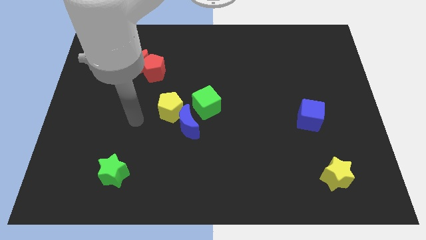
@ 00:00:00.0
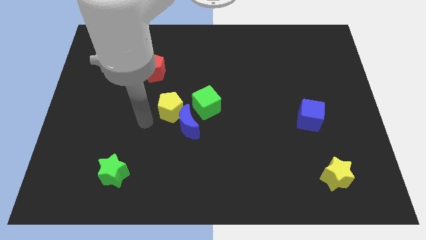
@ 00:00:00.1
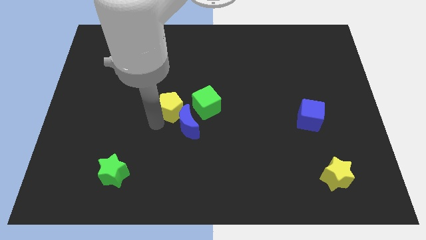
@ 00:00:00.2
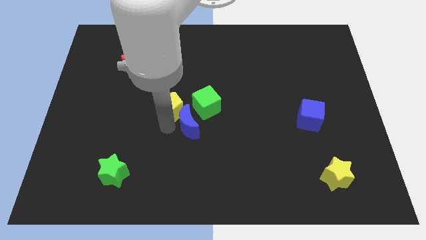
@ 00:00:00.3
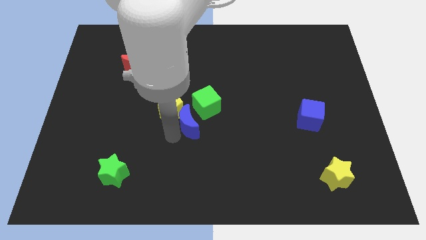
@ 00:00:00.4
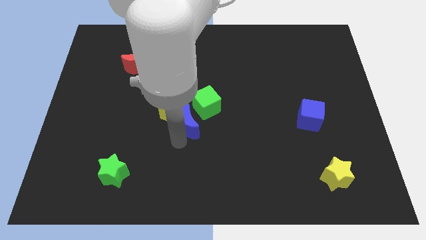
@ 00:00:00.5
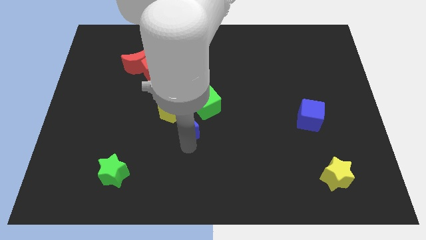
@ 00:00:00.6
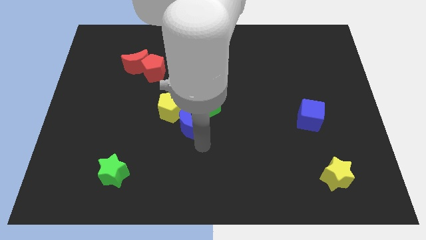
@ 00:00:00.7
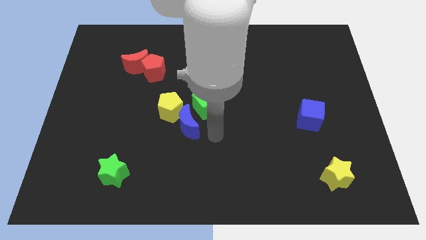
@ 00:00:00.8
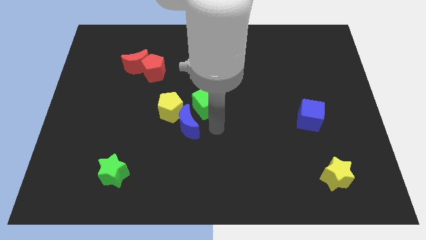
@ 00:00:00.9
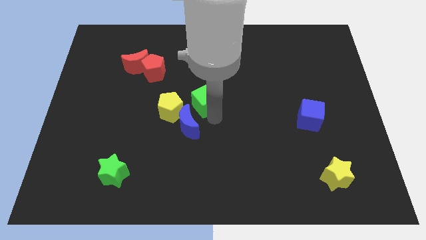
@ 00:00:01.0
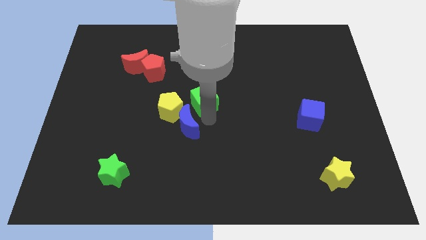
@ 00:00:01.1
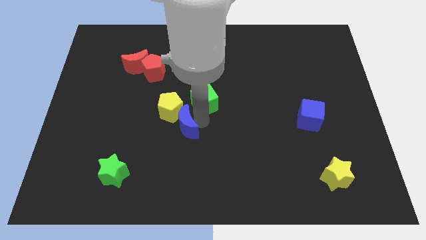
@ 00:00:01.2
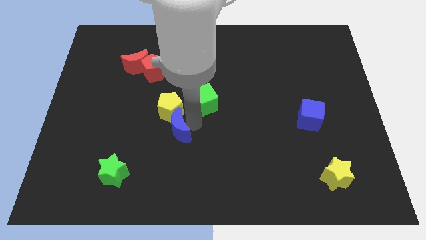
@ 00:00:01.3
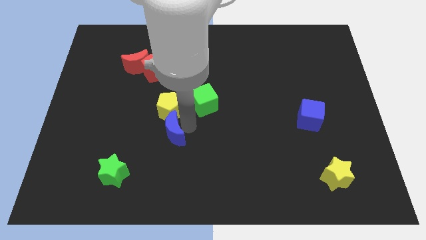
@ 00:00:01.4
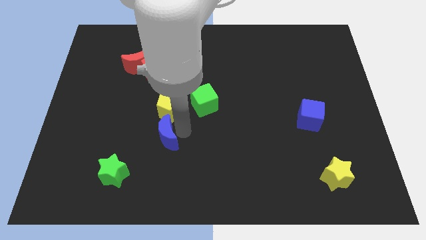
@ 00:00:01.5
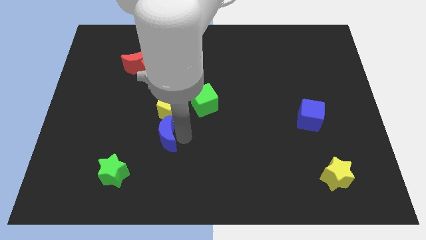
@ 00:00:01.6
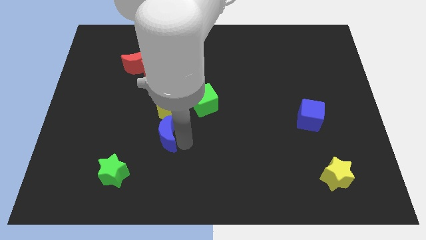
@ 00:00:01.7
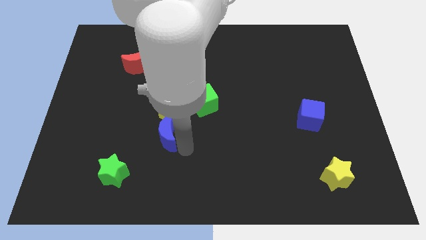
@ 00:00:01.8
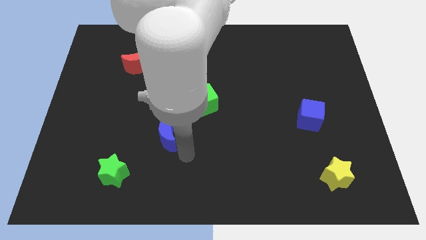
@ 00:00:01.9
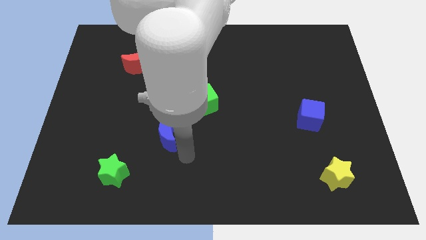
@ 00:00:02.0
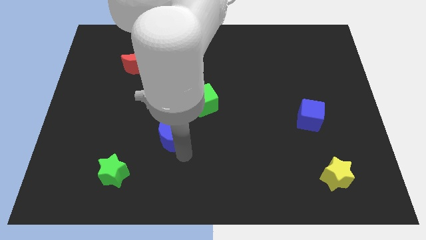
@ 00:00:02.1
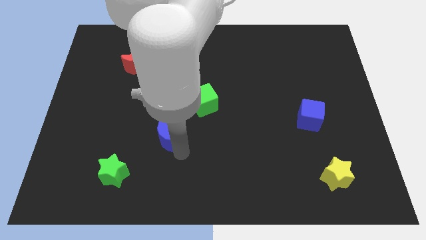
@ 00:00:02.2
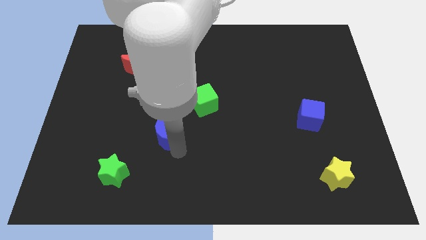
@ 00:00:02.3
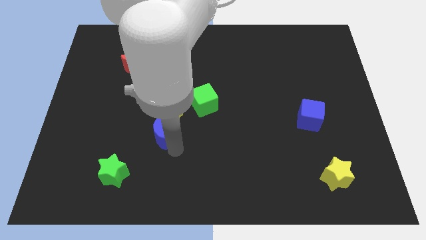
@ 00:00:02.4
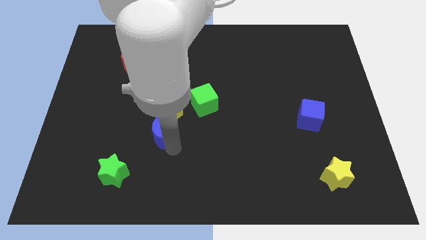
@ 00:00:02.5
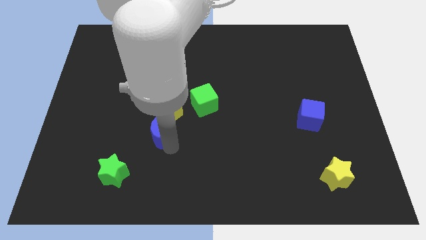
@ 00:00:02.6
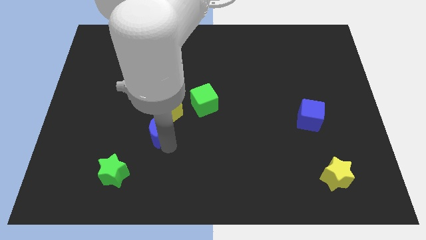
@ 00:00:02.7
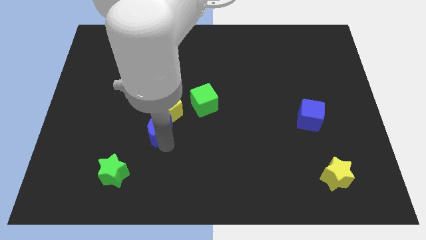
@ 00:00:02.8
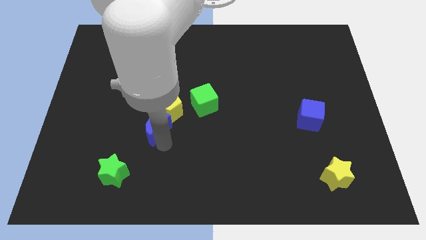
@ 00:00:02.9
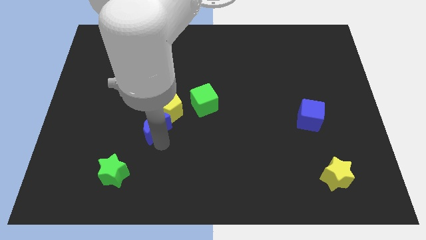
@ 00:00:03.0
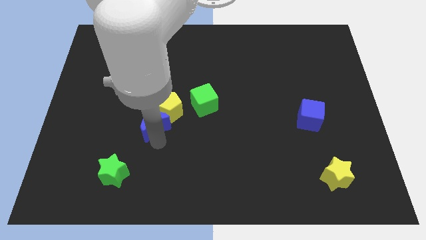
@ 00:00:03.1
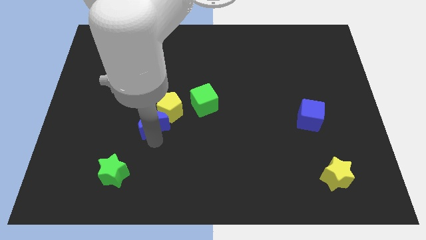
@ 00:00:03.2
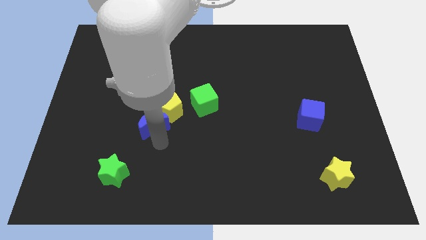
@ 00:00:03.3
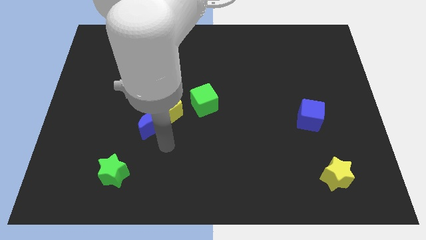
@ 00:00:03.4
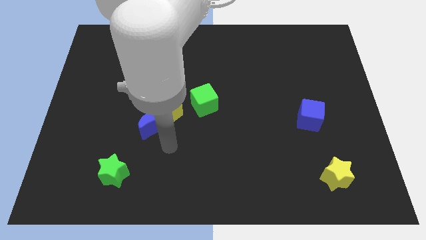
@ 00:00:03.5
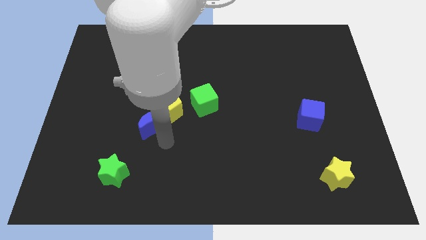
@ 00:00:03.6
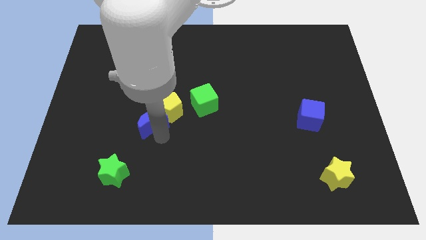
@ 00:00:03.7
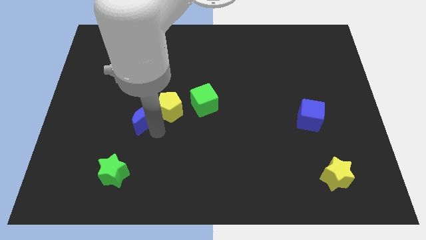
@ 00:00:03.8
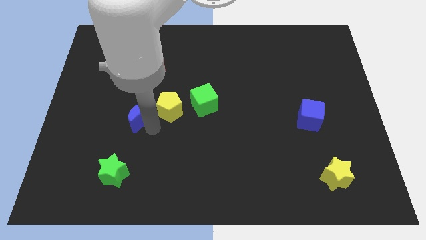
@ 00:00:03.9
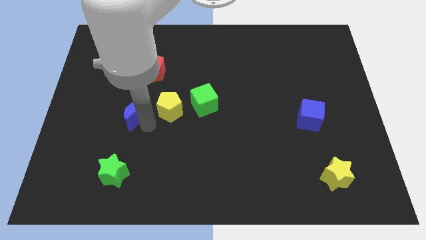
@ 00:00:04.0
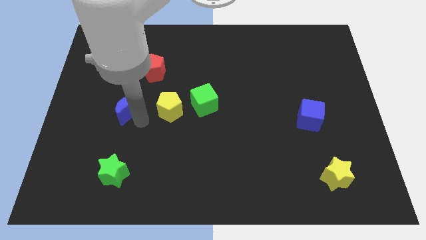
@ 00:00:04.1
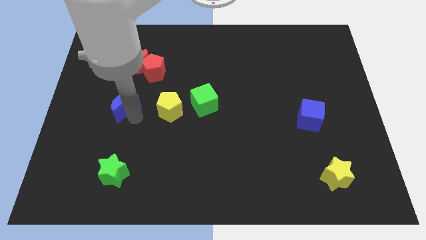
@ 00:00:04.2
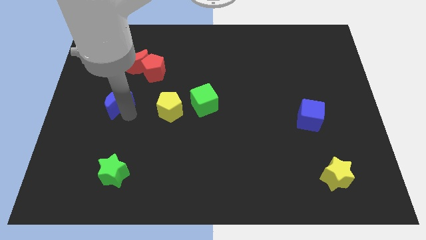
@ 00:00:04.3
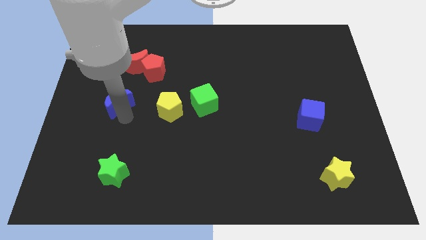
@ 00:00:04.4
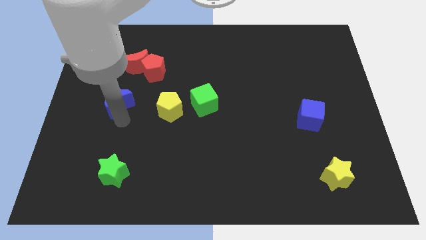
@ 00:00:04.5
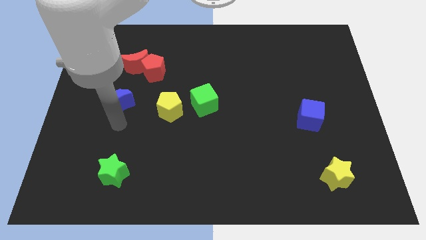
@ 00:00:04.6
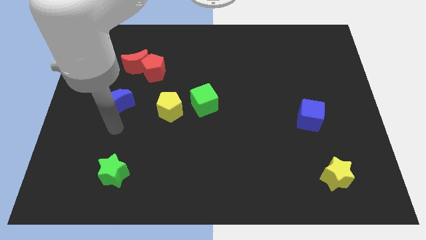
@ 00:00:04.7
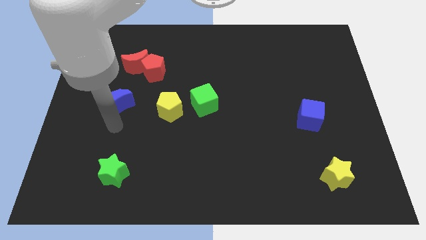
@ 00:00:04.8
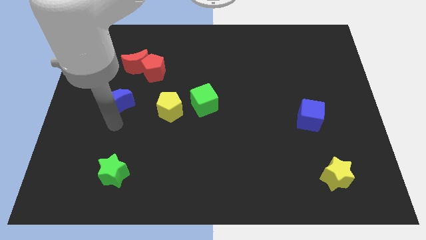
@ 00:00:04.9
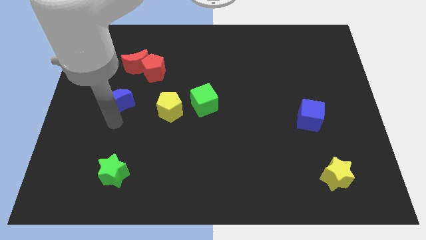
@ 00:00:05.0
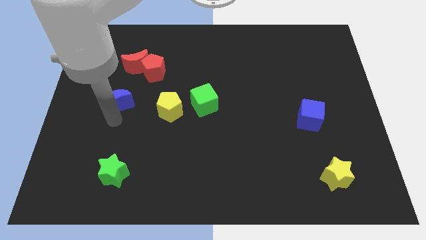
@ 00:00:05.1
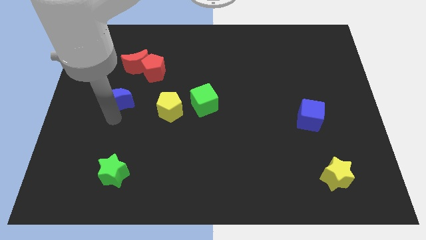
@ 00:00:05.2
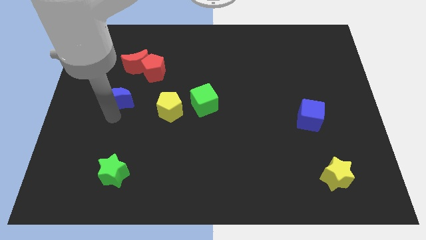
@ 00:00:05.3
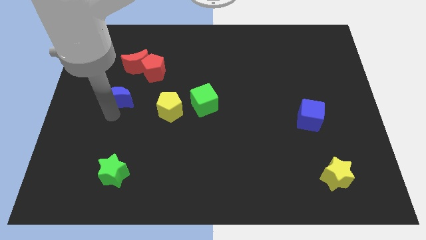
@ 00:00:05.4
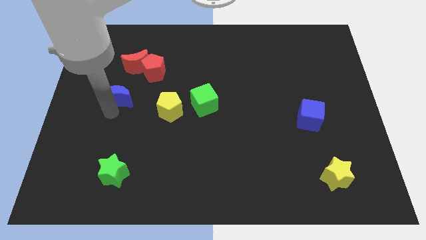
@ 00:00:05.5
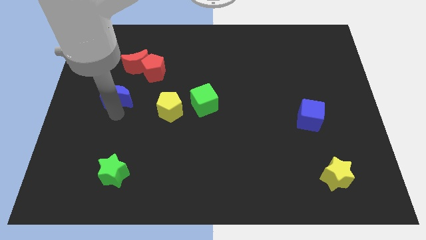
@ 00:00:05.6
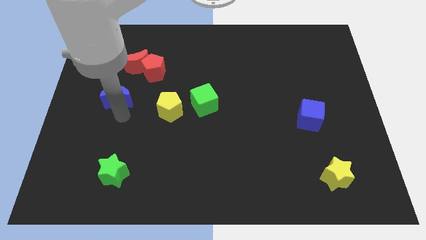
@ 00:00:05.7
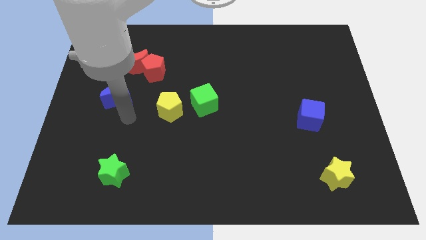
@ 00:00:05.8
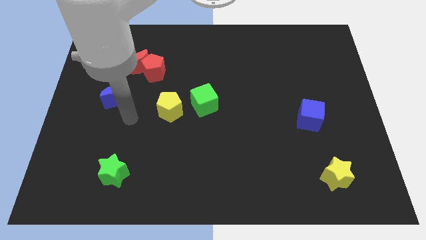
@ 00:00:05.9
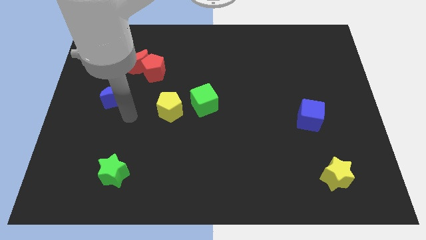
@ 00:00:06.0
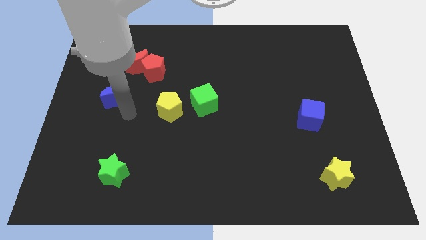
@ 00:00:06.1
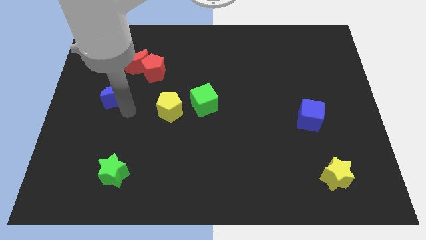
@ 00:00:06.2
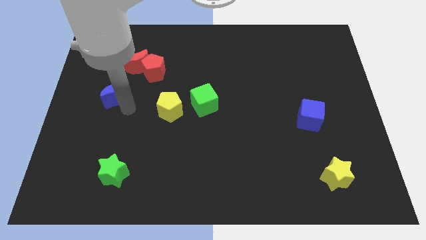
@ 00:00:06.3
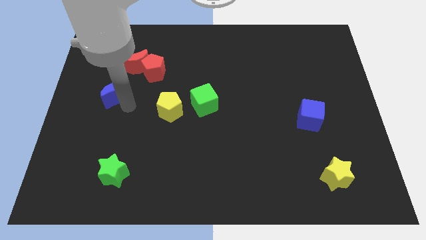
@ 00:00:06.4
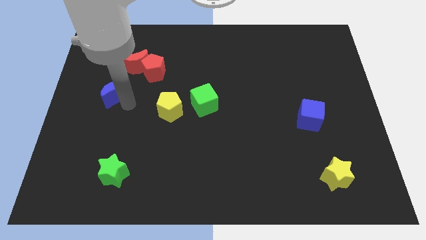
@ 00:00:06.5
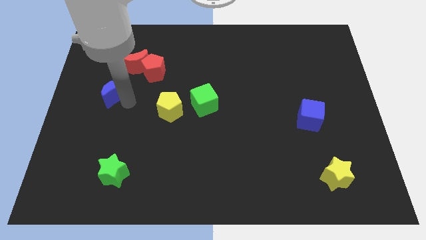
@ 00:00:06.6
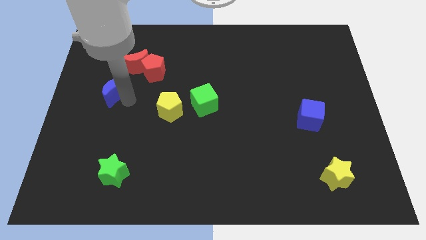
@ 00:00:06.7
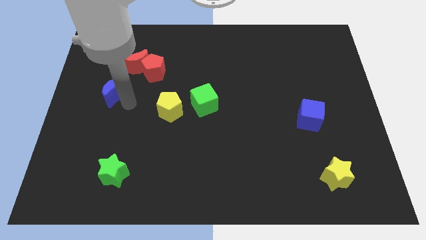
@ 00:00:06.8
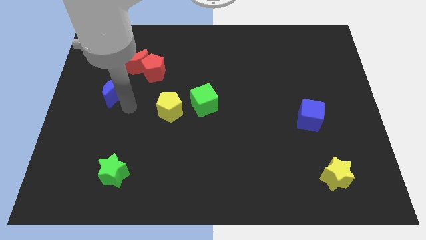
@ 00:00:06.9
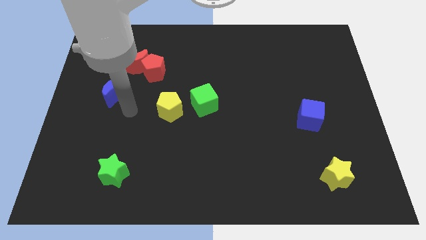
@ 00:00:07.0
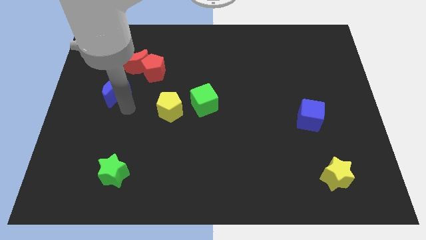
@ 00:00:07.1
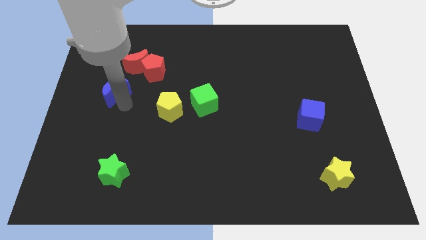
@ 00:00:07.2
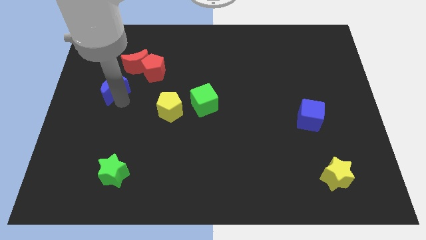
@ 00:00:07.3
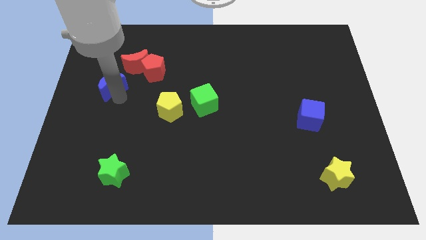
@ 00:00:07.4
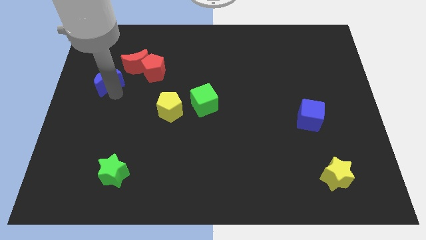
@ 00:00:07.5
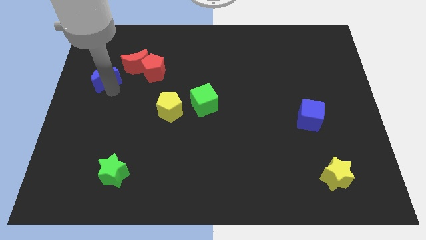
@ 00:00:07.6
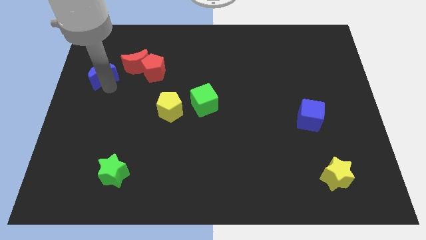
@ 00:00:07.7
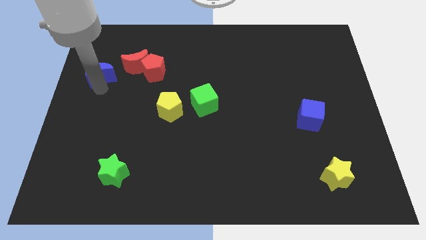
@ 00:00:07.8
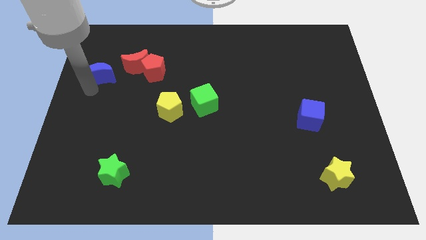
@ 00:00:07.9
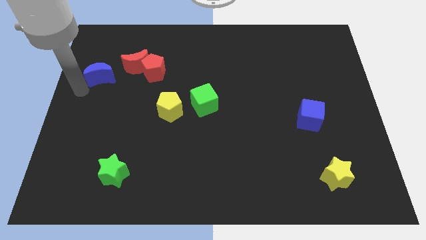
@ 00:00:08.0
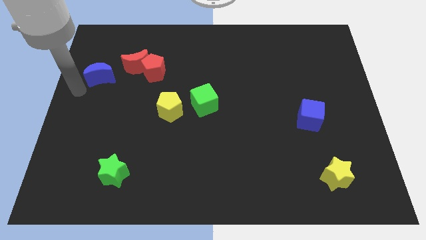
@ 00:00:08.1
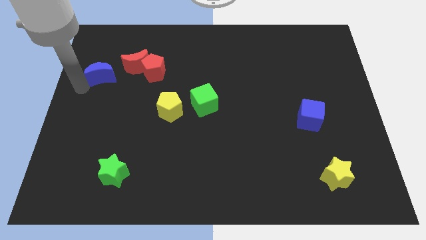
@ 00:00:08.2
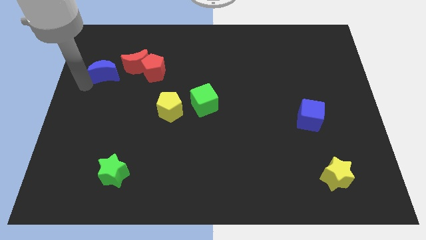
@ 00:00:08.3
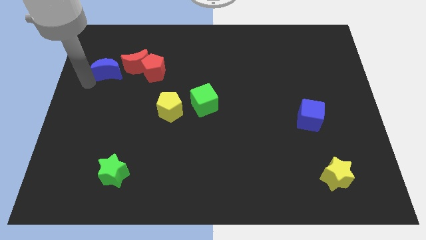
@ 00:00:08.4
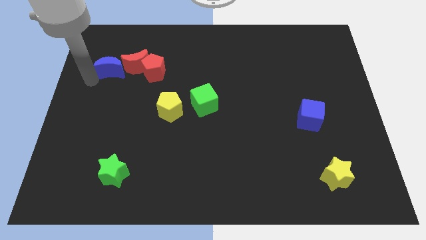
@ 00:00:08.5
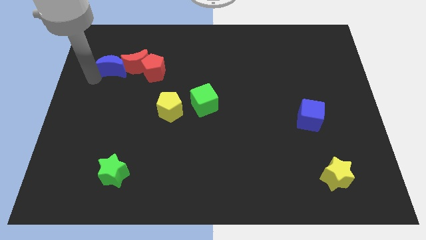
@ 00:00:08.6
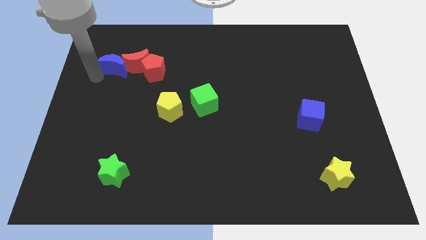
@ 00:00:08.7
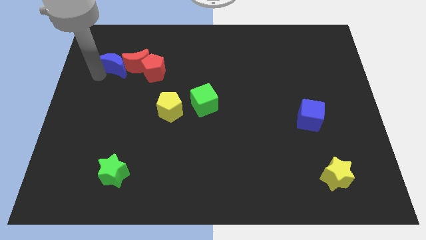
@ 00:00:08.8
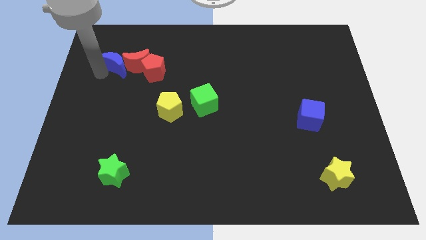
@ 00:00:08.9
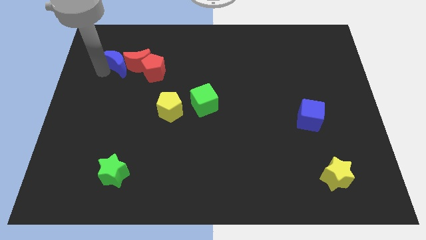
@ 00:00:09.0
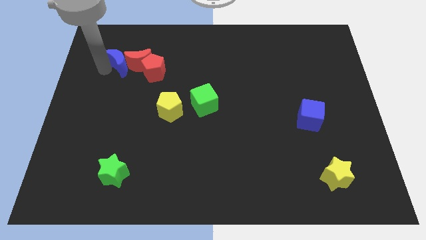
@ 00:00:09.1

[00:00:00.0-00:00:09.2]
push the blue moon to the top left of the red pentagon
